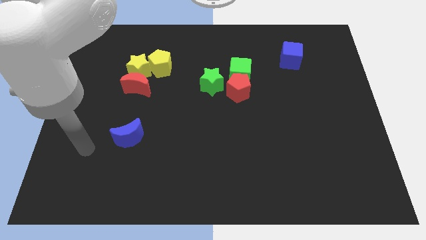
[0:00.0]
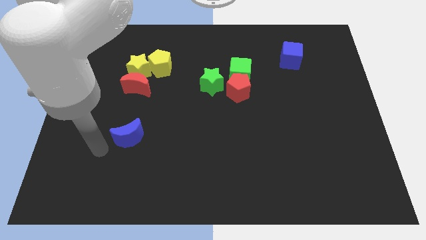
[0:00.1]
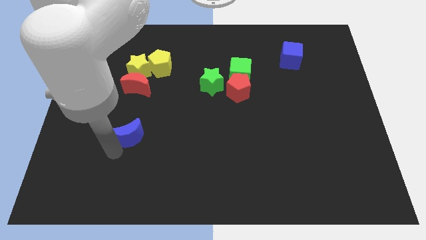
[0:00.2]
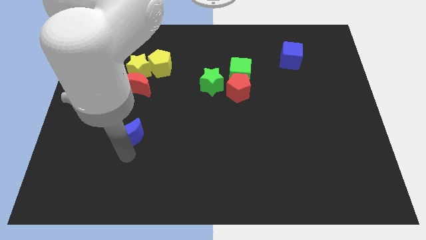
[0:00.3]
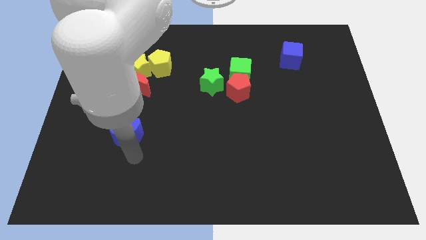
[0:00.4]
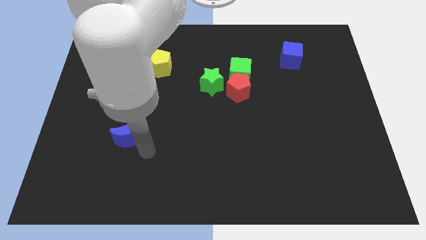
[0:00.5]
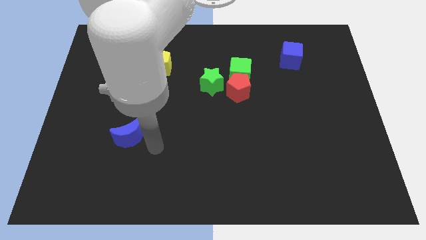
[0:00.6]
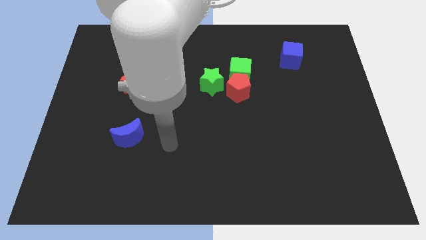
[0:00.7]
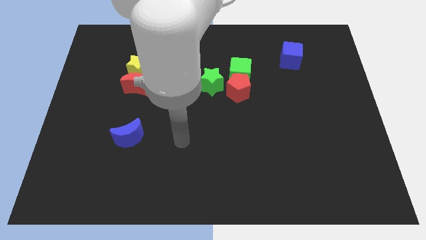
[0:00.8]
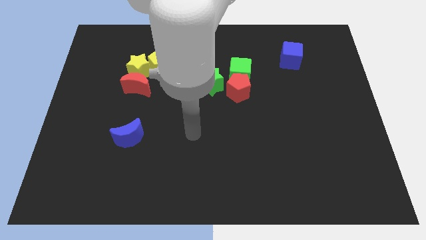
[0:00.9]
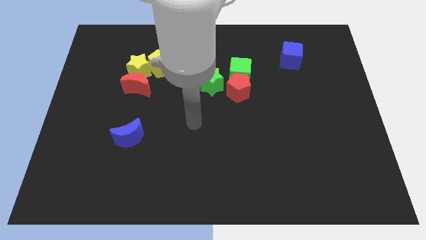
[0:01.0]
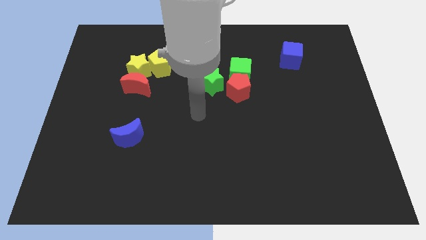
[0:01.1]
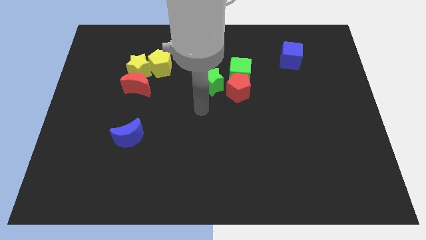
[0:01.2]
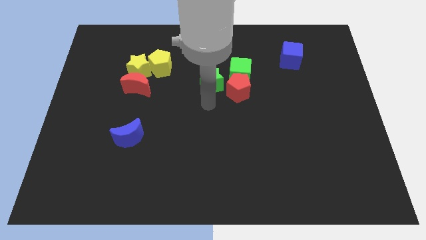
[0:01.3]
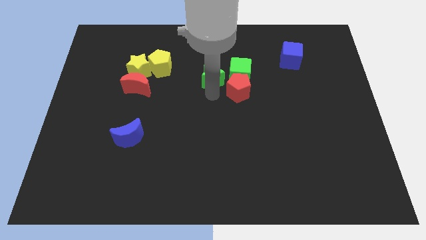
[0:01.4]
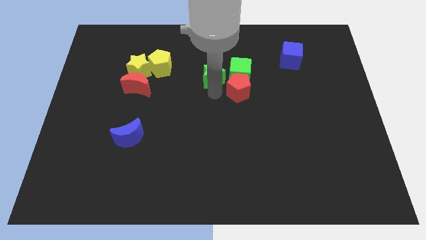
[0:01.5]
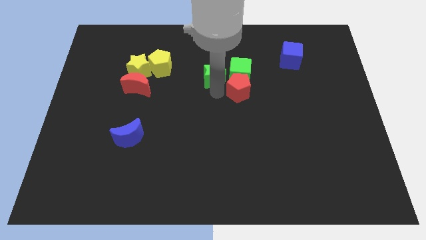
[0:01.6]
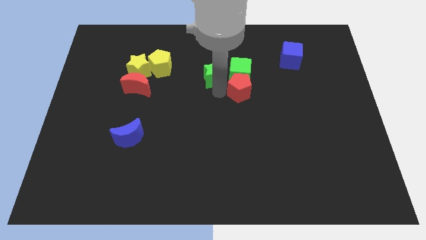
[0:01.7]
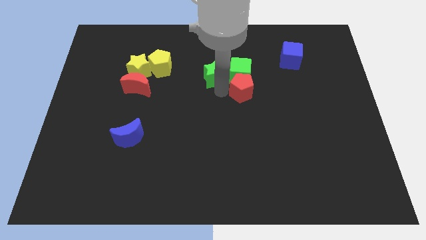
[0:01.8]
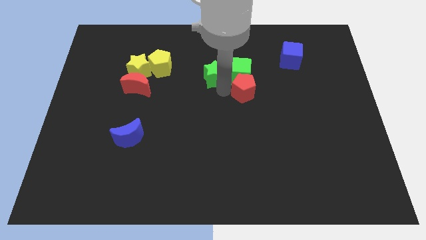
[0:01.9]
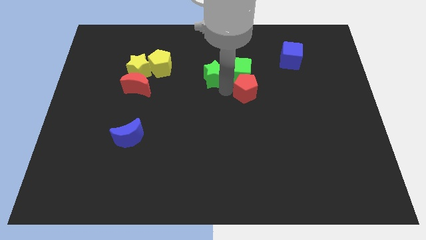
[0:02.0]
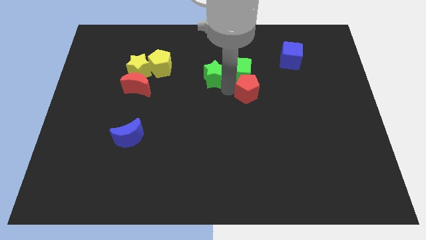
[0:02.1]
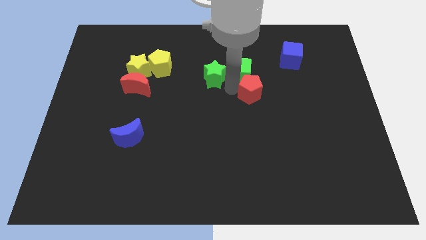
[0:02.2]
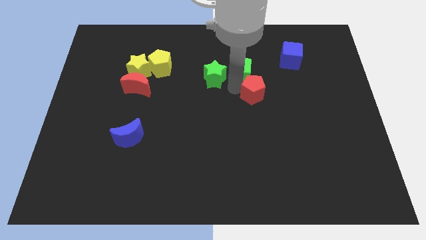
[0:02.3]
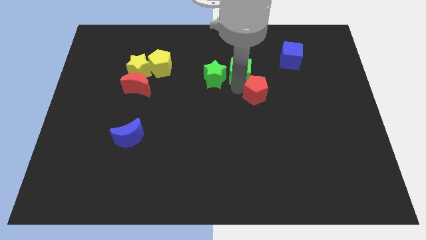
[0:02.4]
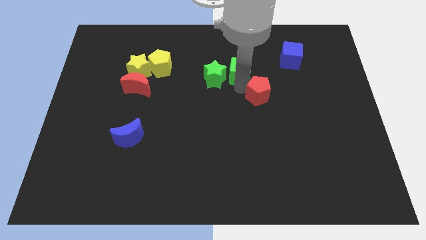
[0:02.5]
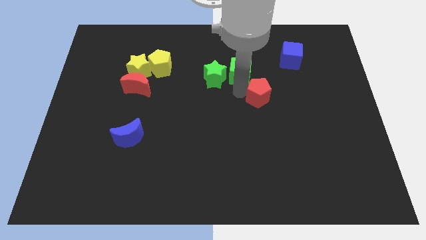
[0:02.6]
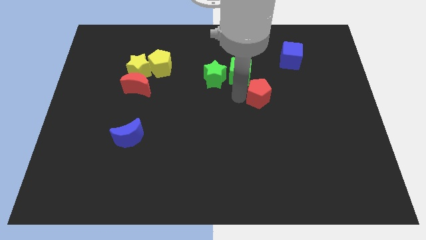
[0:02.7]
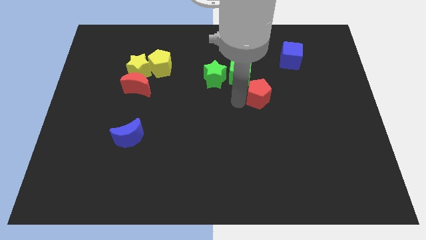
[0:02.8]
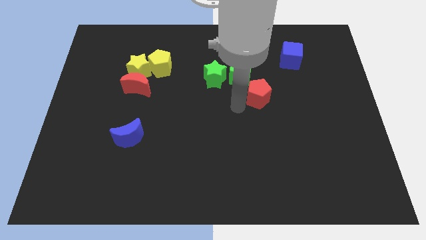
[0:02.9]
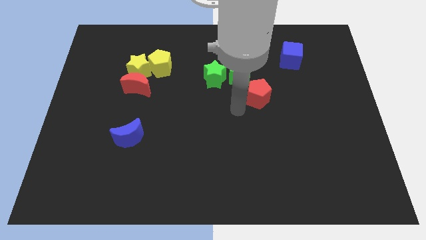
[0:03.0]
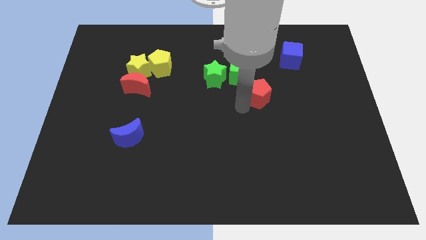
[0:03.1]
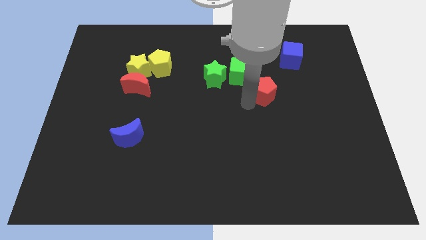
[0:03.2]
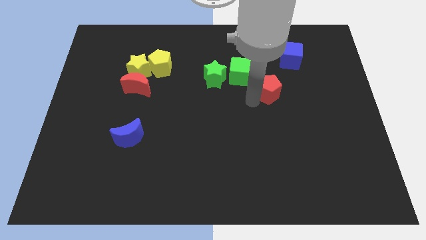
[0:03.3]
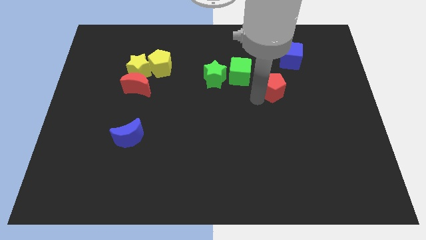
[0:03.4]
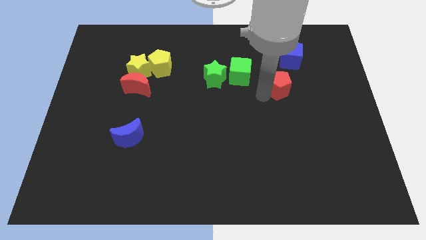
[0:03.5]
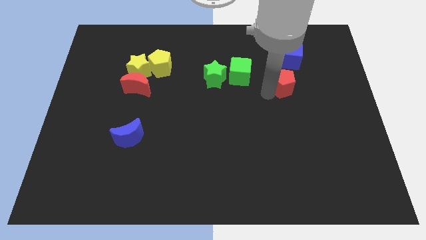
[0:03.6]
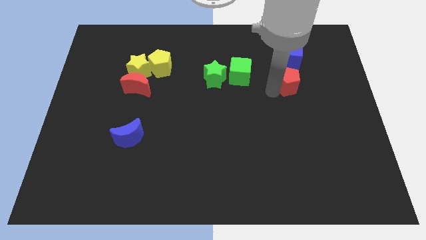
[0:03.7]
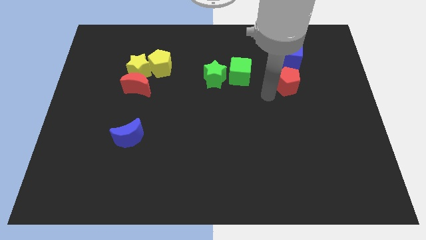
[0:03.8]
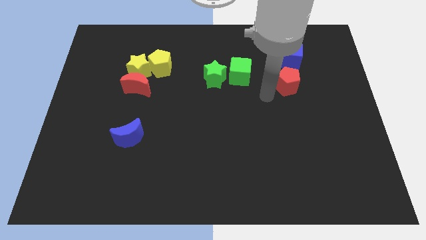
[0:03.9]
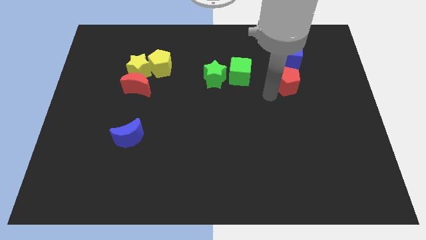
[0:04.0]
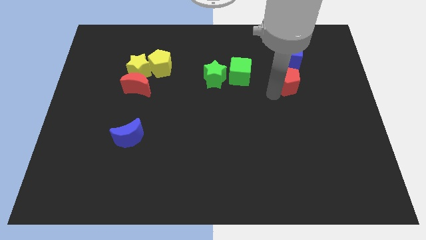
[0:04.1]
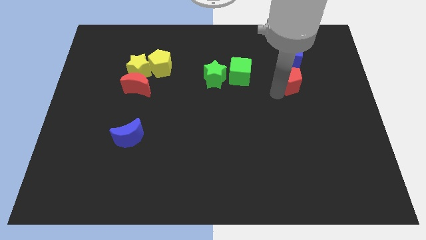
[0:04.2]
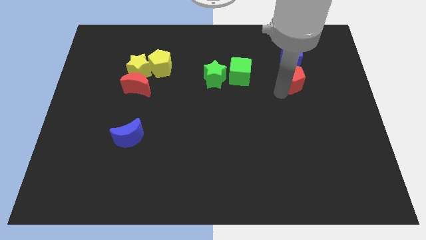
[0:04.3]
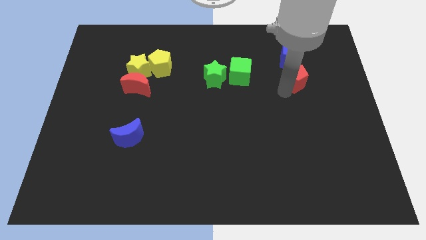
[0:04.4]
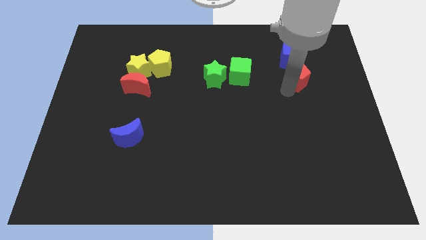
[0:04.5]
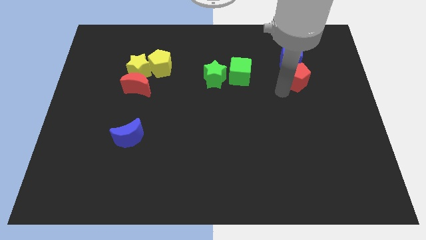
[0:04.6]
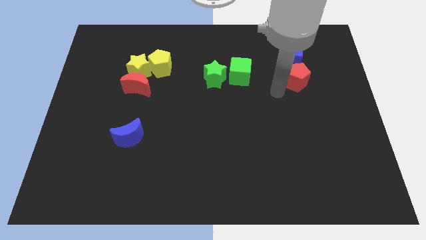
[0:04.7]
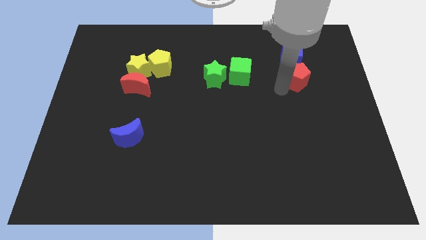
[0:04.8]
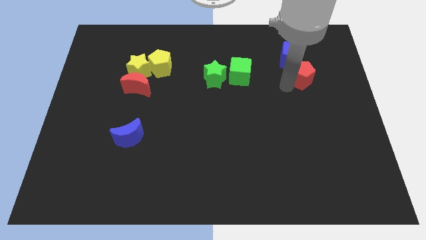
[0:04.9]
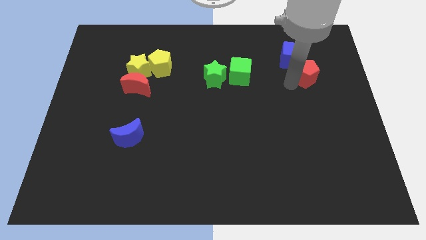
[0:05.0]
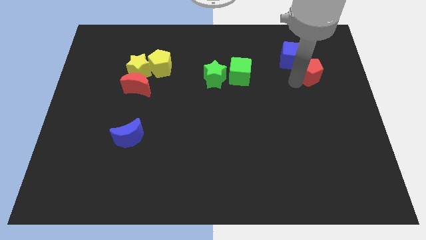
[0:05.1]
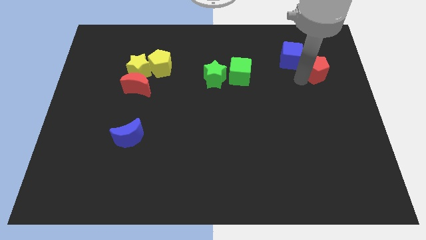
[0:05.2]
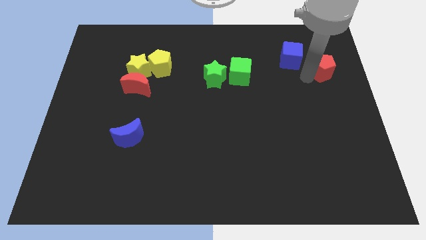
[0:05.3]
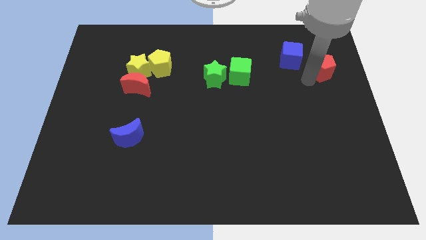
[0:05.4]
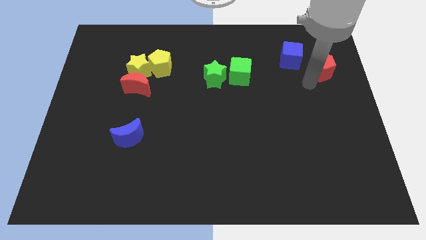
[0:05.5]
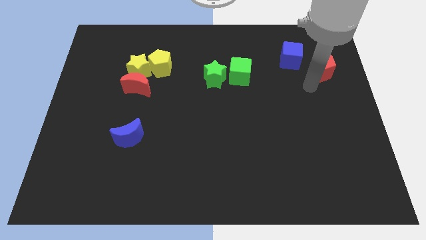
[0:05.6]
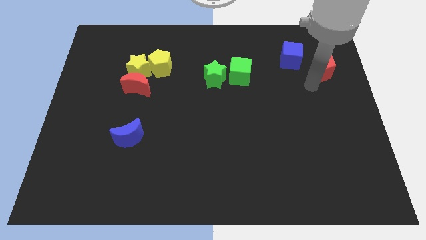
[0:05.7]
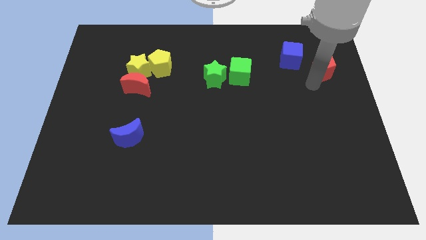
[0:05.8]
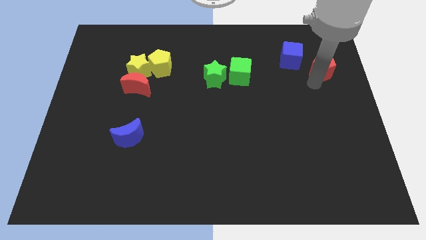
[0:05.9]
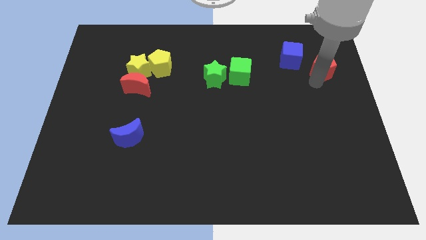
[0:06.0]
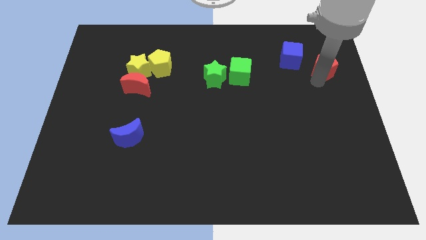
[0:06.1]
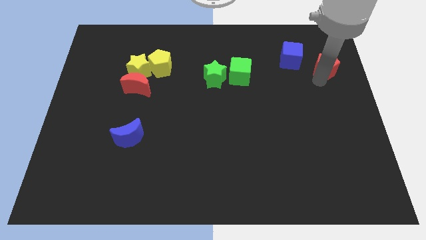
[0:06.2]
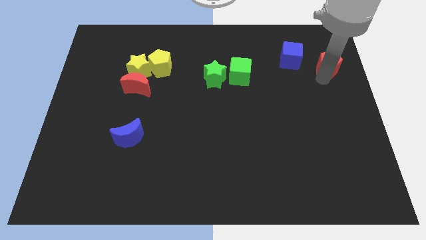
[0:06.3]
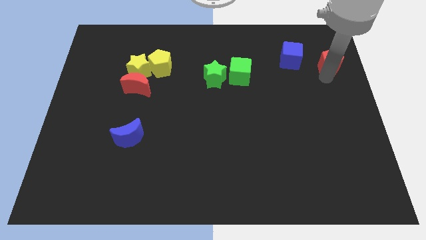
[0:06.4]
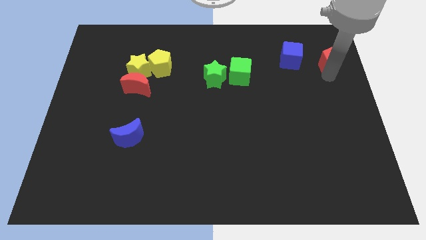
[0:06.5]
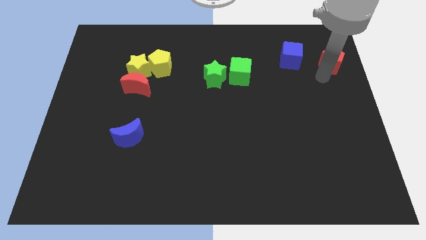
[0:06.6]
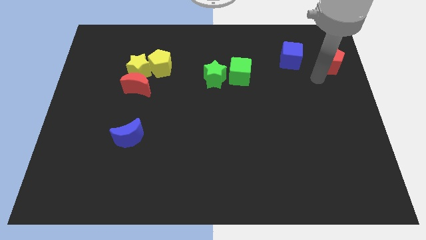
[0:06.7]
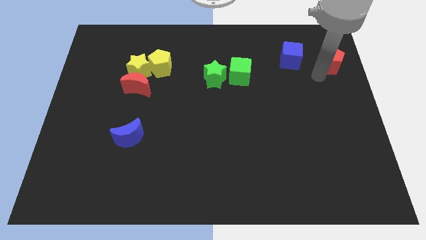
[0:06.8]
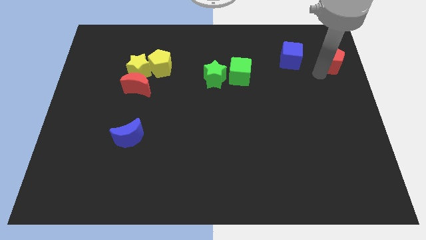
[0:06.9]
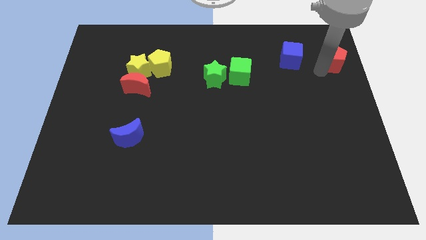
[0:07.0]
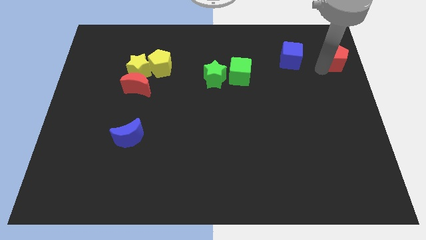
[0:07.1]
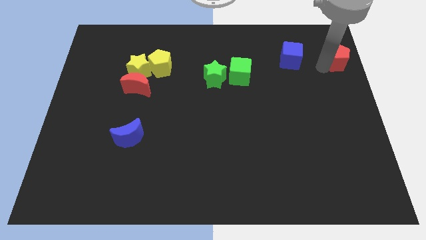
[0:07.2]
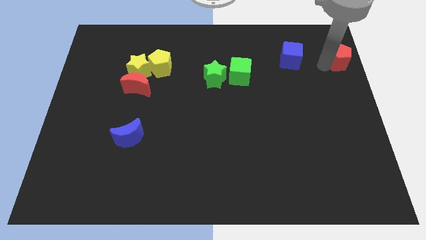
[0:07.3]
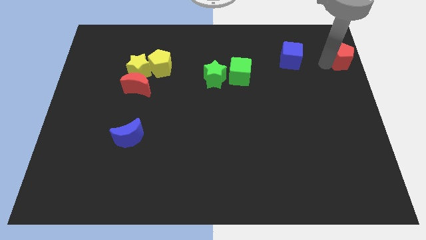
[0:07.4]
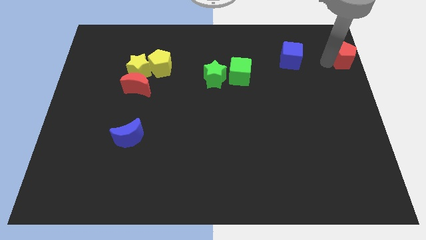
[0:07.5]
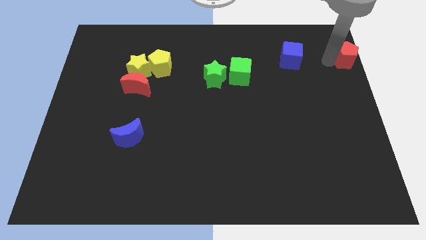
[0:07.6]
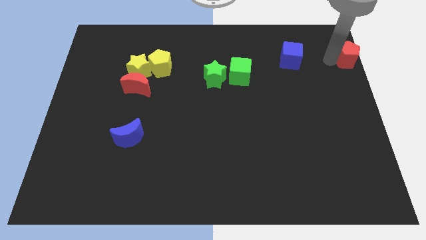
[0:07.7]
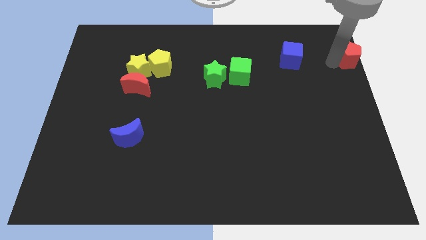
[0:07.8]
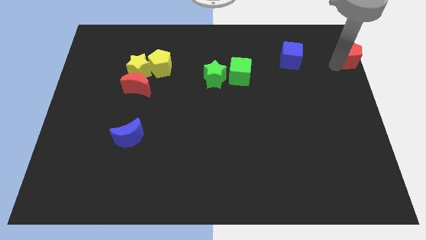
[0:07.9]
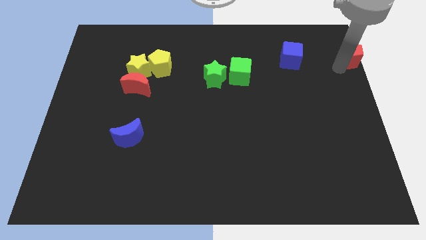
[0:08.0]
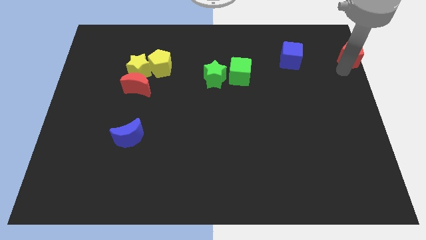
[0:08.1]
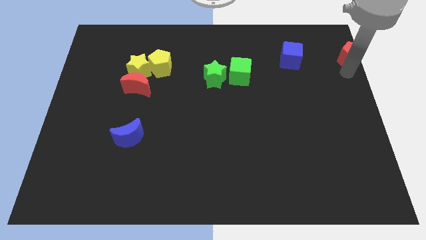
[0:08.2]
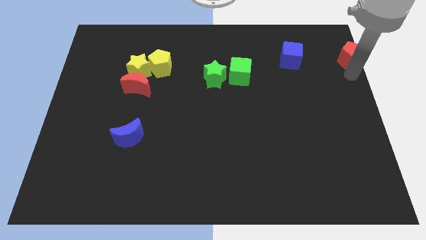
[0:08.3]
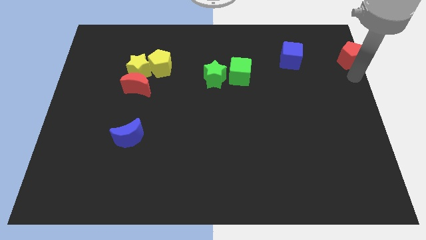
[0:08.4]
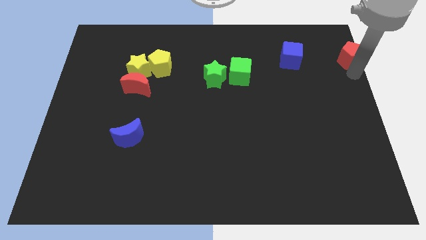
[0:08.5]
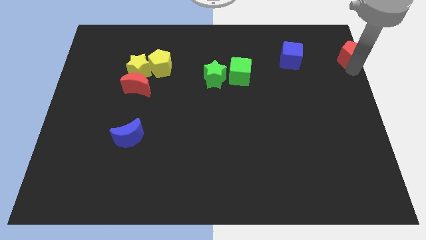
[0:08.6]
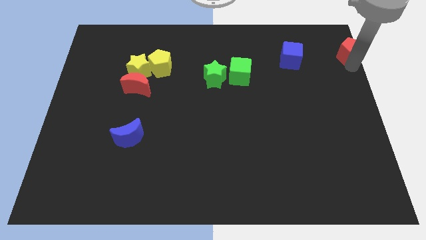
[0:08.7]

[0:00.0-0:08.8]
push the red pentagon to the upper right corner
